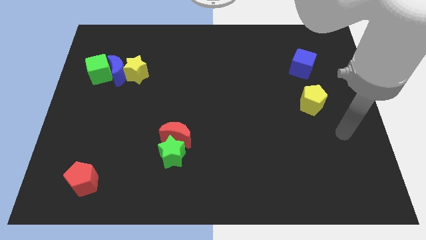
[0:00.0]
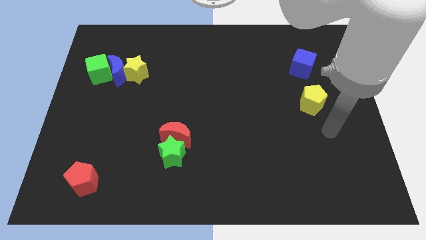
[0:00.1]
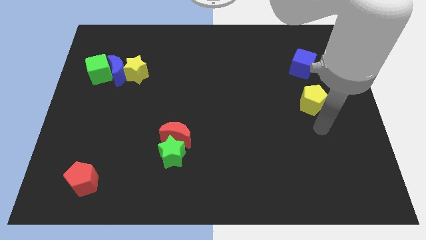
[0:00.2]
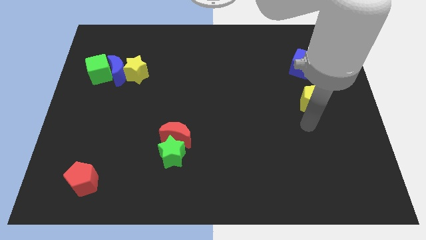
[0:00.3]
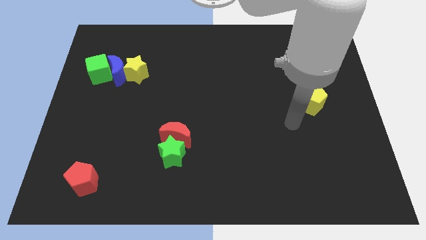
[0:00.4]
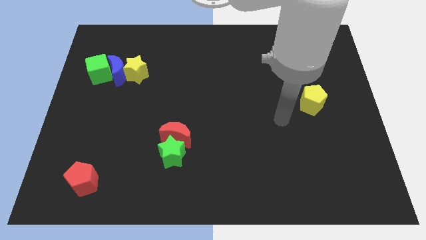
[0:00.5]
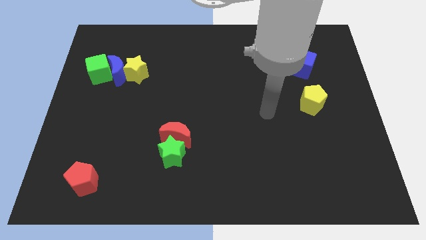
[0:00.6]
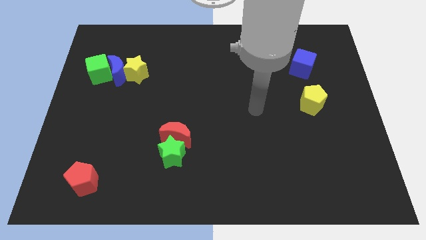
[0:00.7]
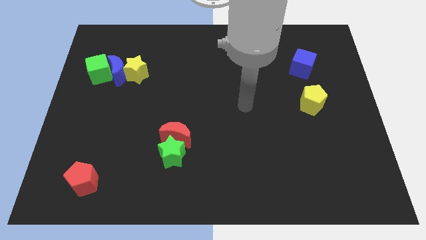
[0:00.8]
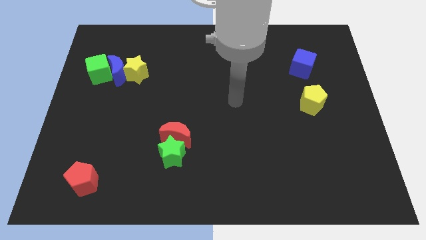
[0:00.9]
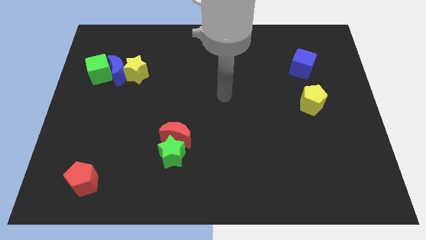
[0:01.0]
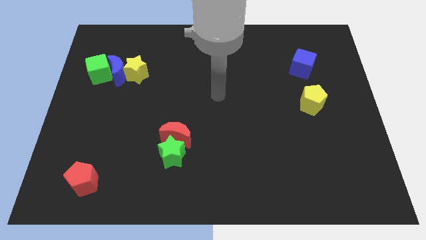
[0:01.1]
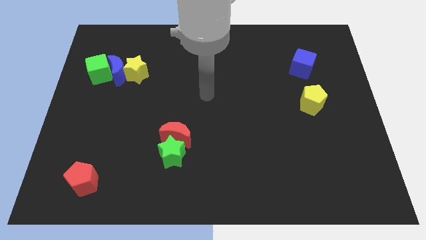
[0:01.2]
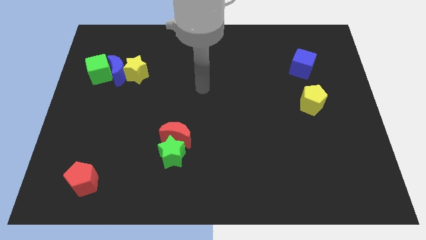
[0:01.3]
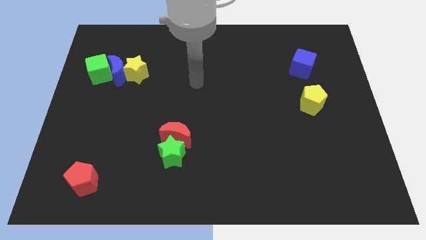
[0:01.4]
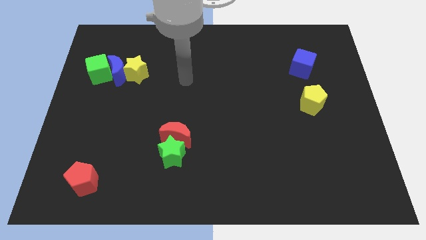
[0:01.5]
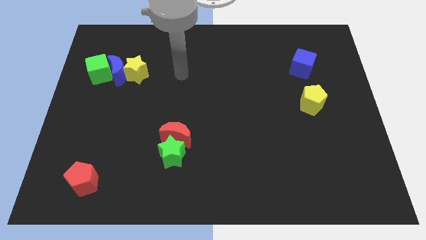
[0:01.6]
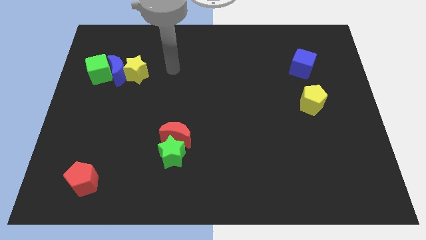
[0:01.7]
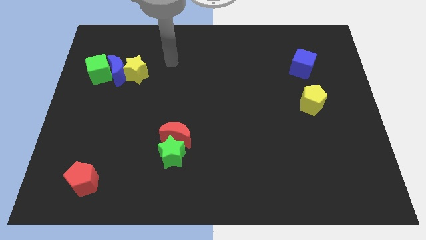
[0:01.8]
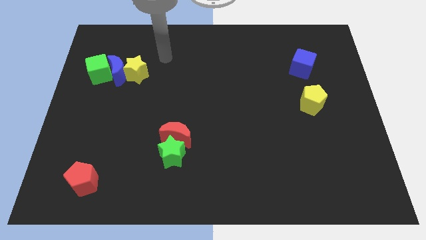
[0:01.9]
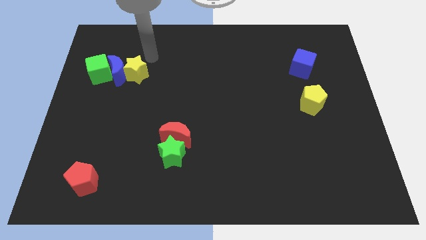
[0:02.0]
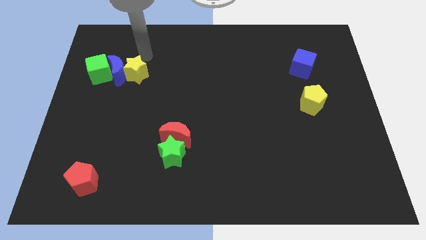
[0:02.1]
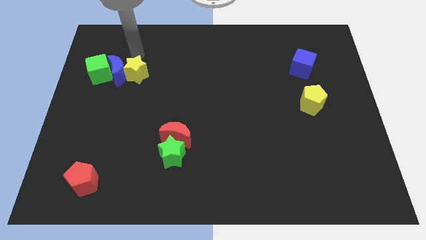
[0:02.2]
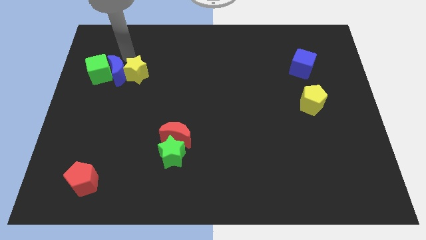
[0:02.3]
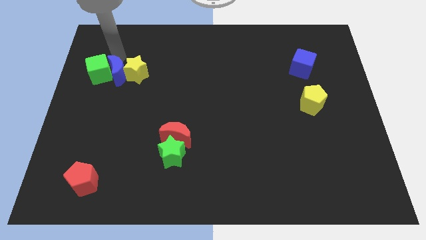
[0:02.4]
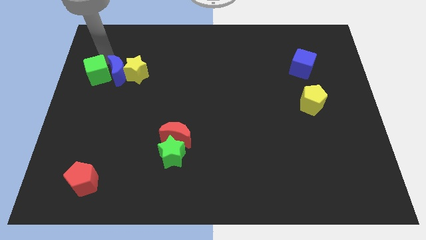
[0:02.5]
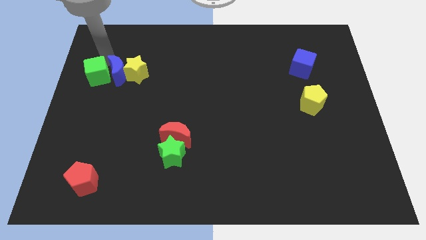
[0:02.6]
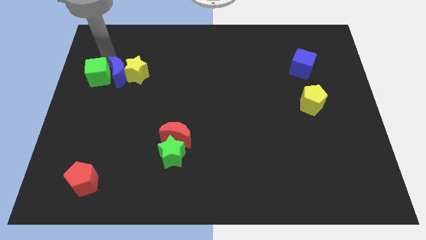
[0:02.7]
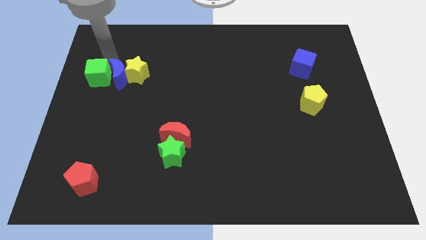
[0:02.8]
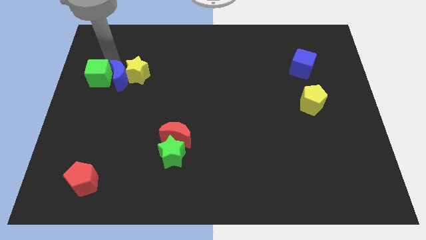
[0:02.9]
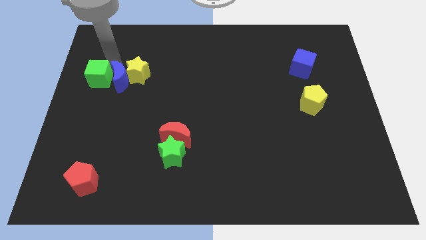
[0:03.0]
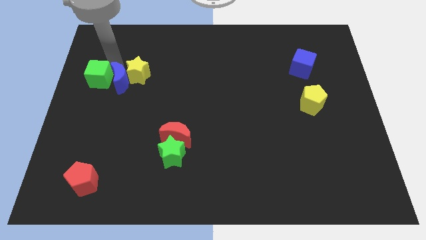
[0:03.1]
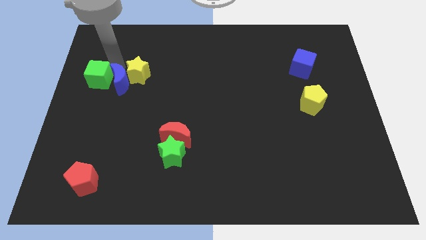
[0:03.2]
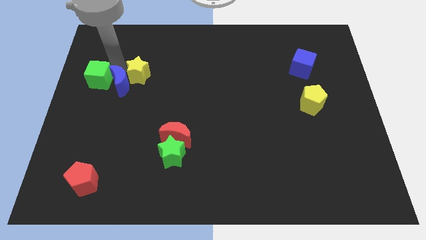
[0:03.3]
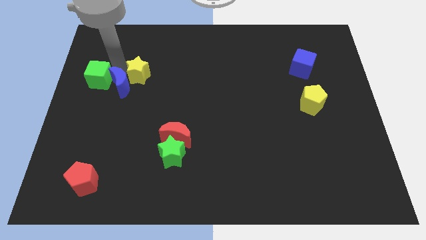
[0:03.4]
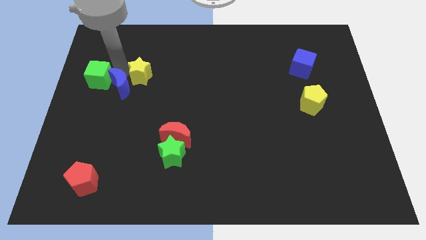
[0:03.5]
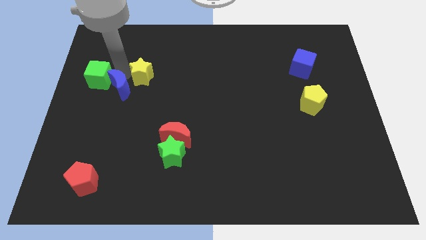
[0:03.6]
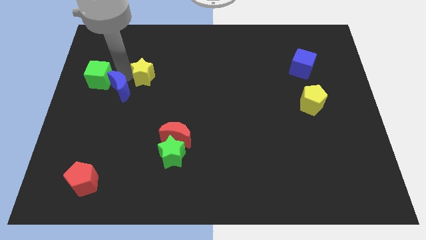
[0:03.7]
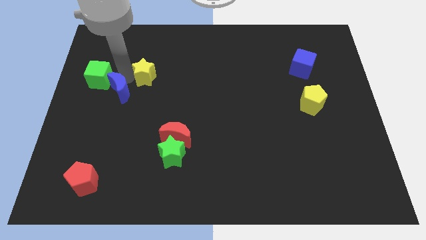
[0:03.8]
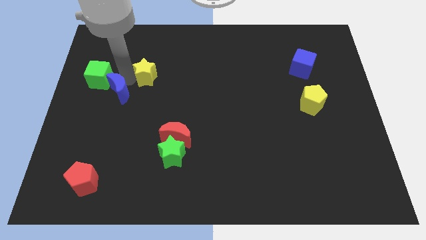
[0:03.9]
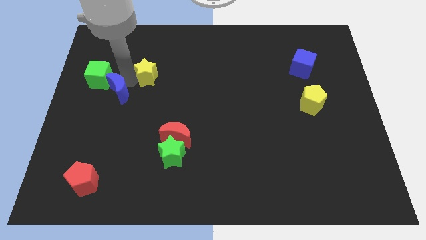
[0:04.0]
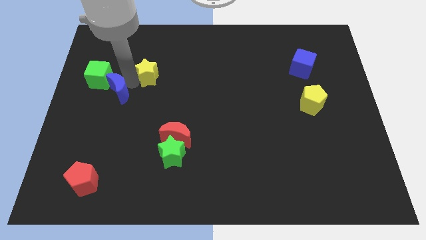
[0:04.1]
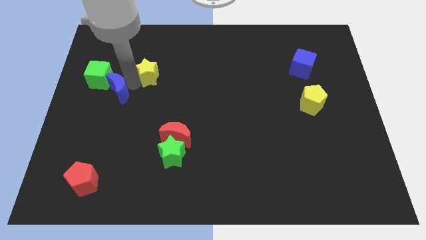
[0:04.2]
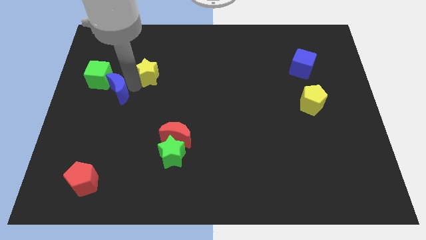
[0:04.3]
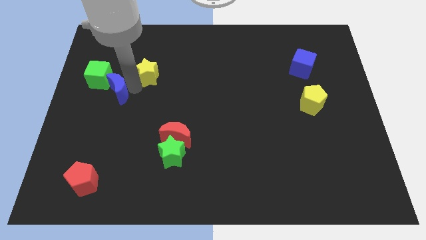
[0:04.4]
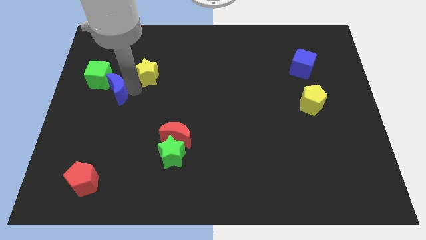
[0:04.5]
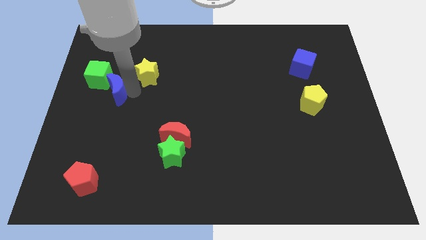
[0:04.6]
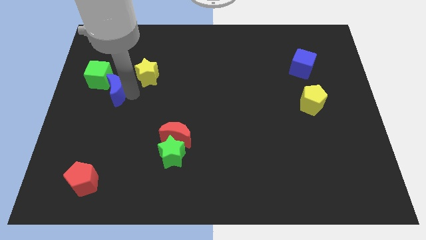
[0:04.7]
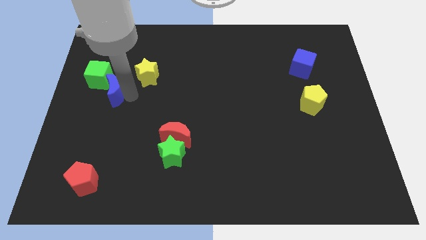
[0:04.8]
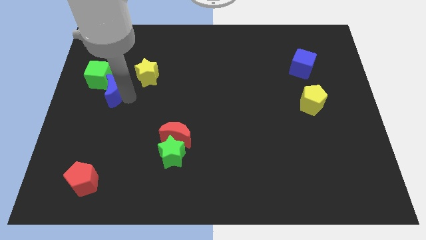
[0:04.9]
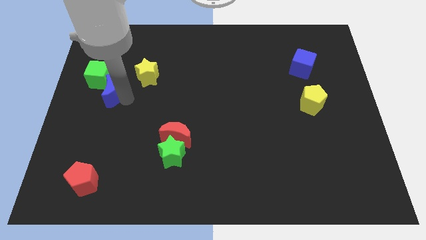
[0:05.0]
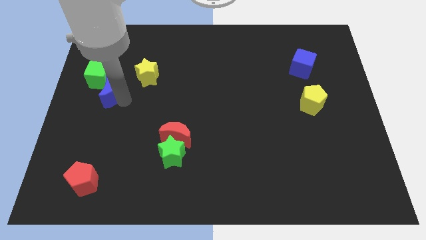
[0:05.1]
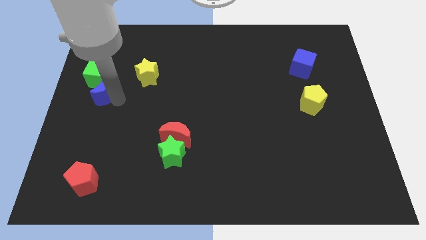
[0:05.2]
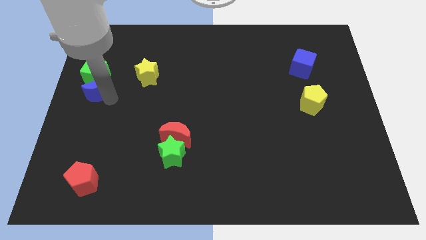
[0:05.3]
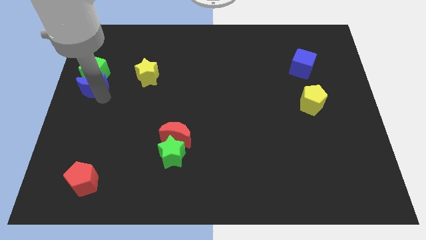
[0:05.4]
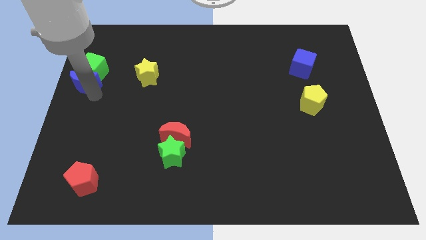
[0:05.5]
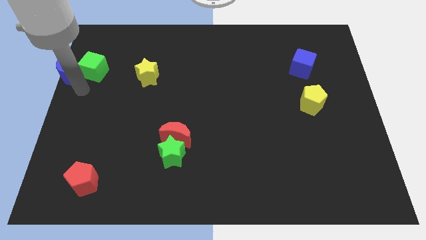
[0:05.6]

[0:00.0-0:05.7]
move the blue moon away from the yellow star and green cube

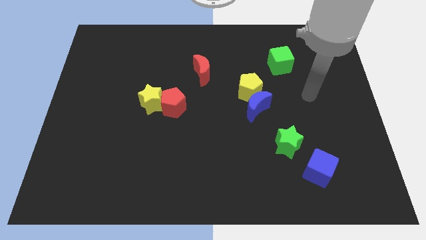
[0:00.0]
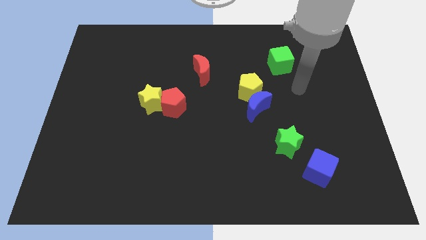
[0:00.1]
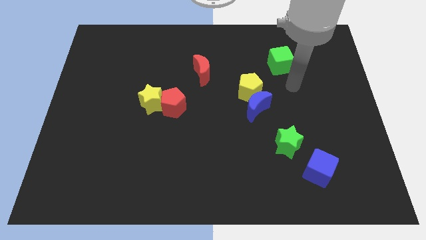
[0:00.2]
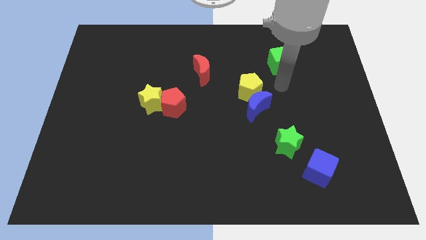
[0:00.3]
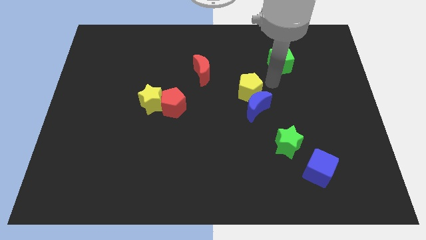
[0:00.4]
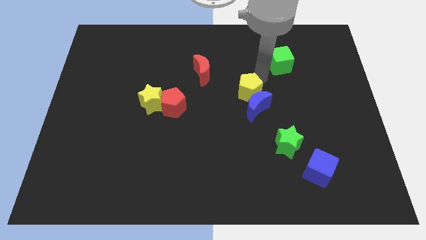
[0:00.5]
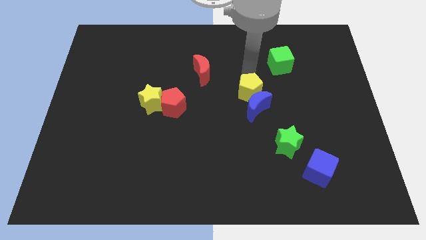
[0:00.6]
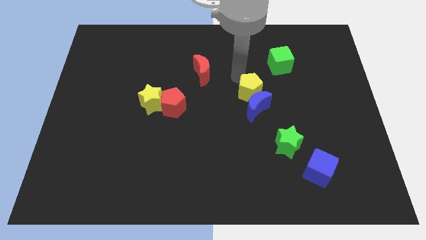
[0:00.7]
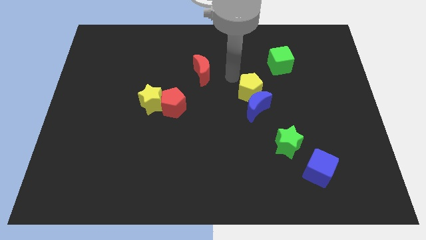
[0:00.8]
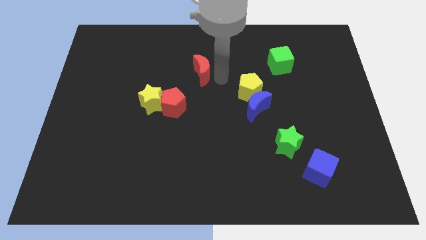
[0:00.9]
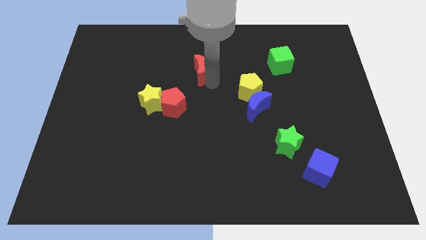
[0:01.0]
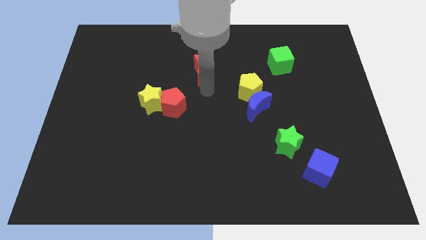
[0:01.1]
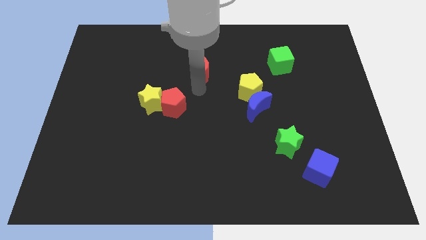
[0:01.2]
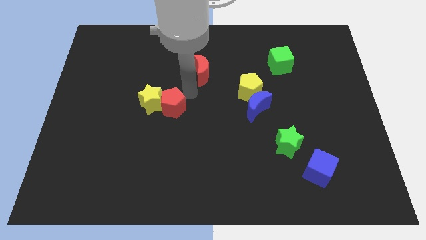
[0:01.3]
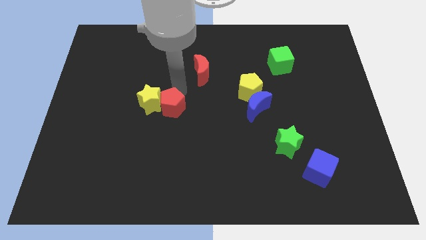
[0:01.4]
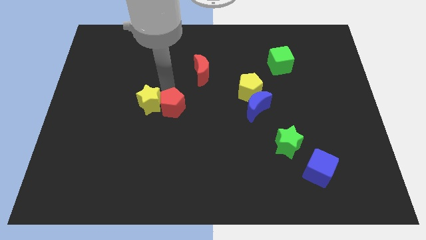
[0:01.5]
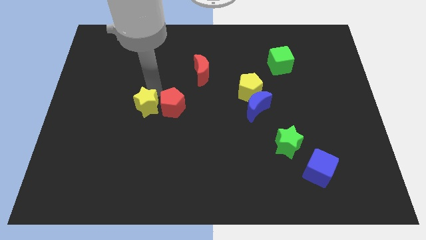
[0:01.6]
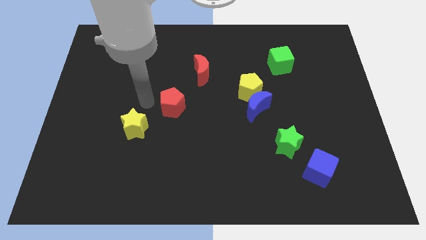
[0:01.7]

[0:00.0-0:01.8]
separate the red pentagon from the yellow star

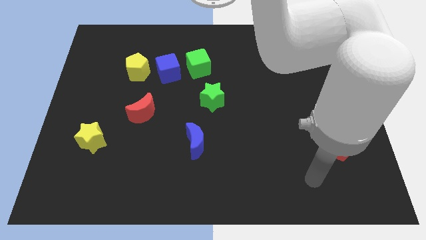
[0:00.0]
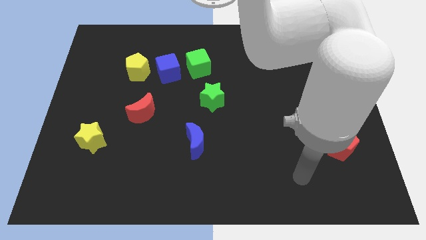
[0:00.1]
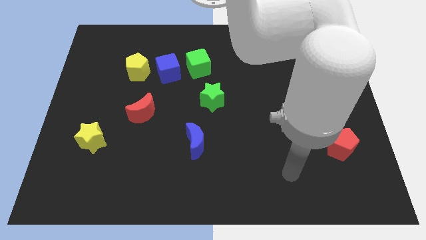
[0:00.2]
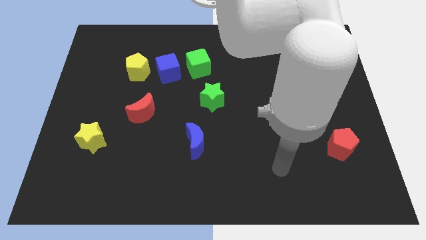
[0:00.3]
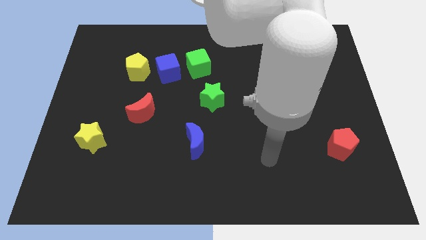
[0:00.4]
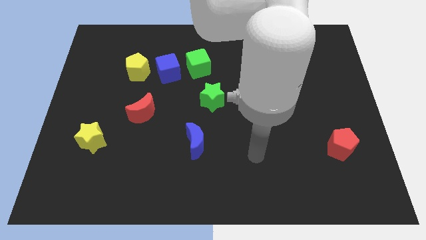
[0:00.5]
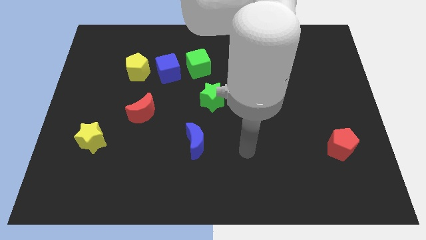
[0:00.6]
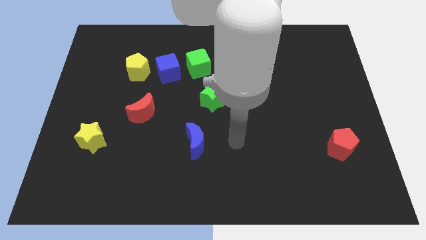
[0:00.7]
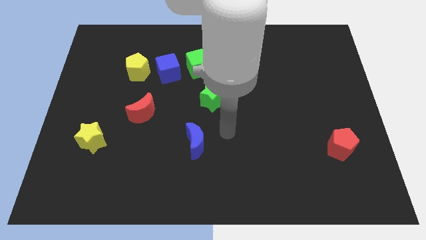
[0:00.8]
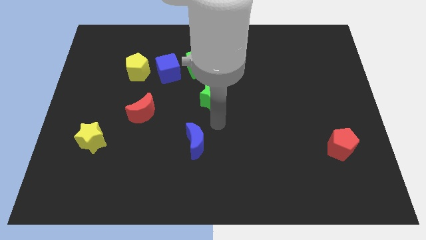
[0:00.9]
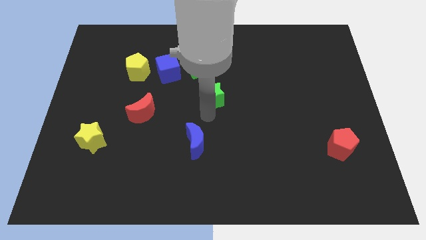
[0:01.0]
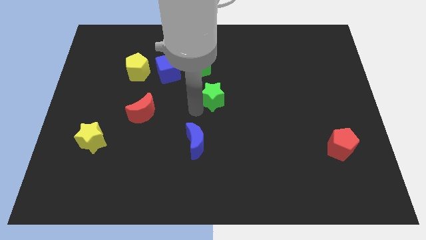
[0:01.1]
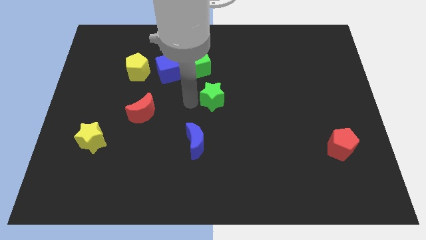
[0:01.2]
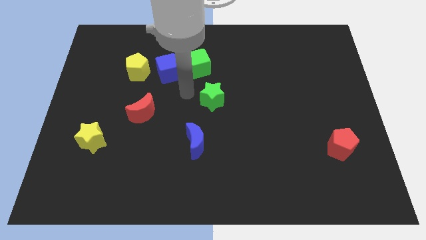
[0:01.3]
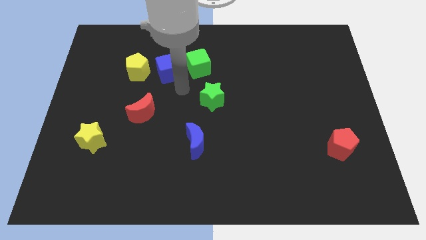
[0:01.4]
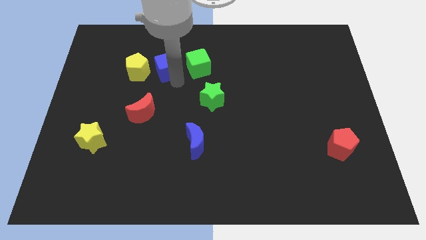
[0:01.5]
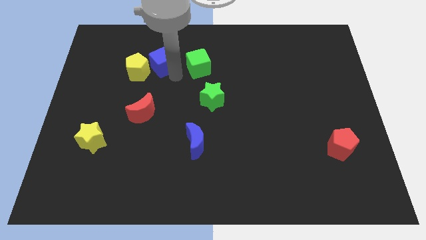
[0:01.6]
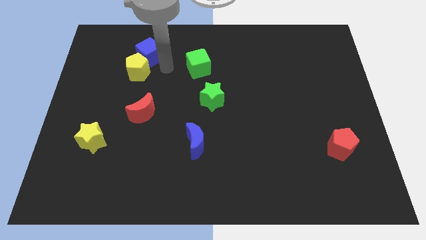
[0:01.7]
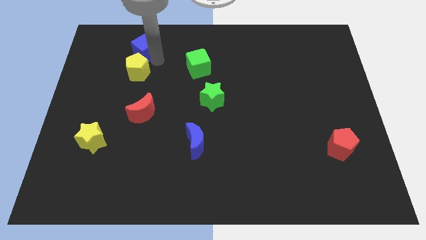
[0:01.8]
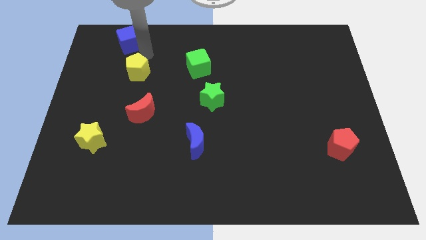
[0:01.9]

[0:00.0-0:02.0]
separate the yellow pentagon from the blue cube
